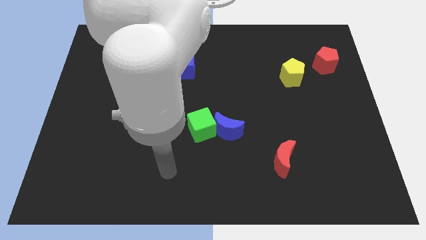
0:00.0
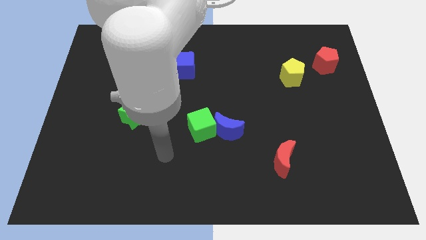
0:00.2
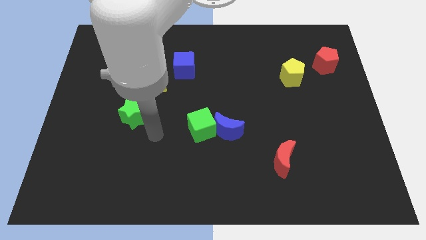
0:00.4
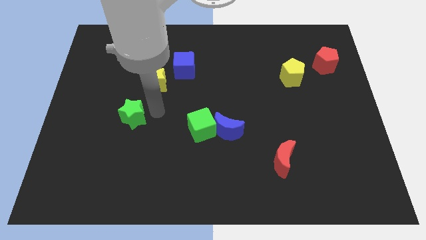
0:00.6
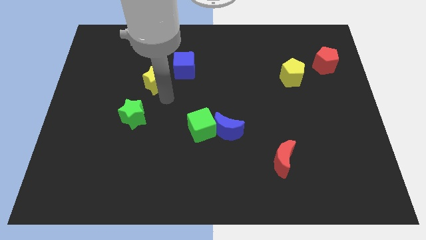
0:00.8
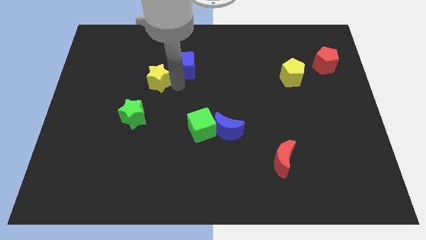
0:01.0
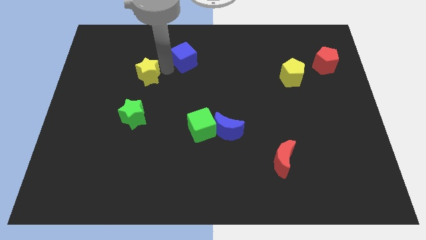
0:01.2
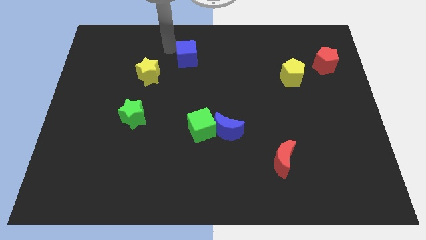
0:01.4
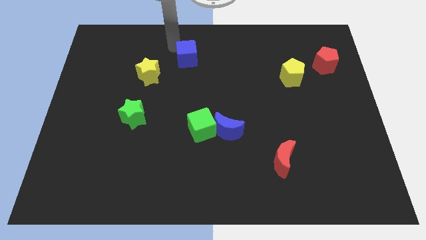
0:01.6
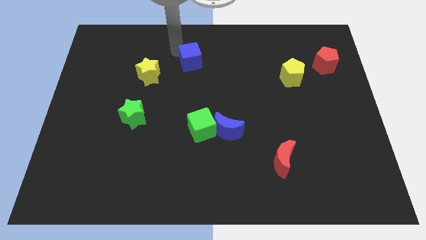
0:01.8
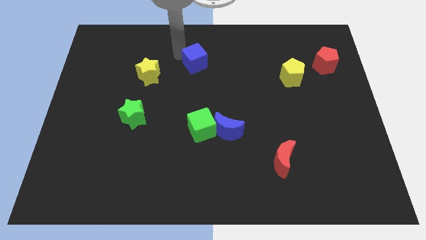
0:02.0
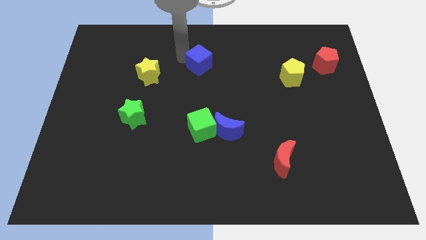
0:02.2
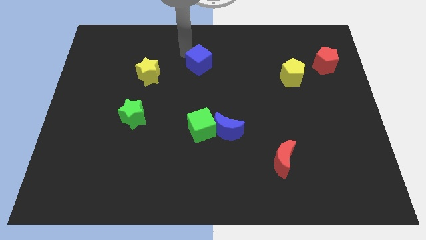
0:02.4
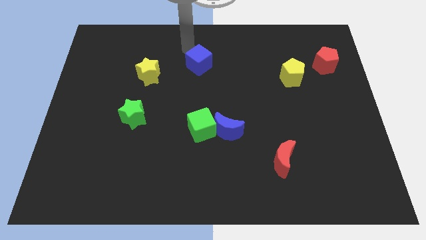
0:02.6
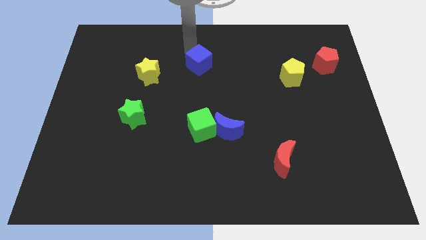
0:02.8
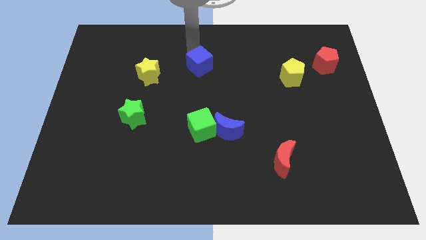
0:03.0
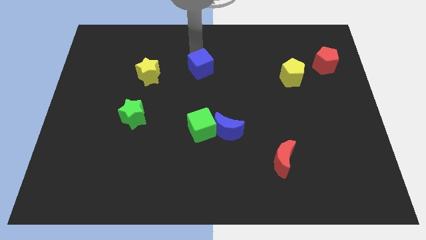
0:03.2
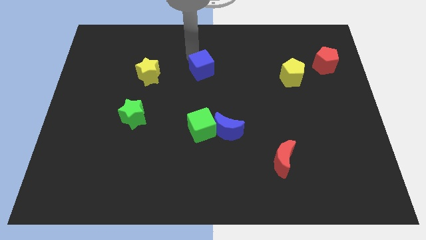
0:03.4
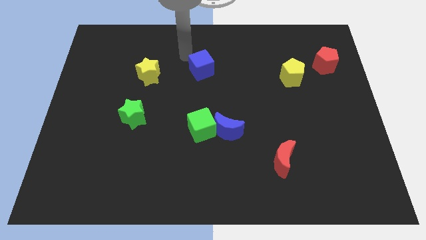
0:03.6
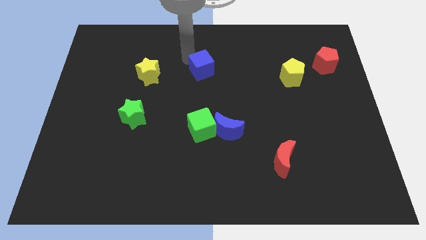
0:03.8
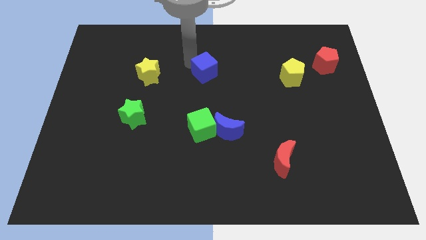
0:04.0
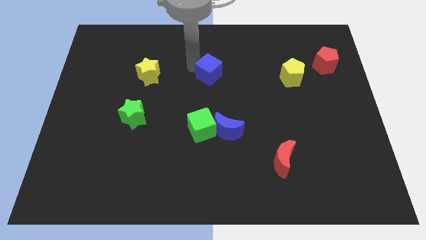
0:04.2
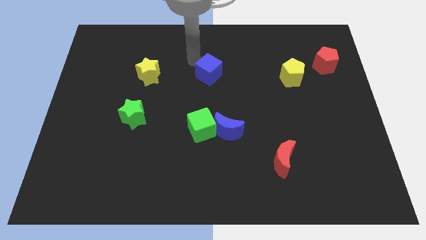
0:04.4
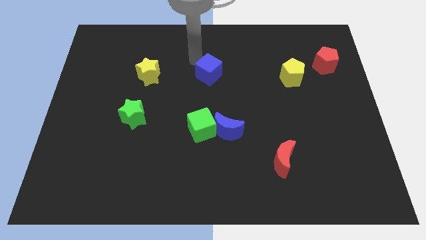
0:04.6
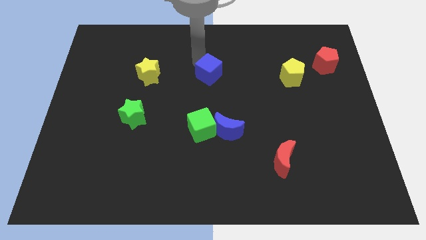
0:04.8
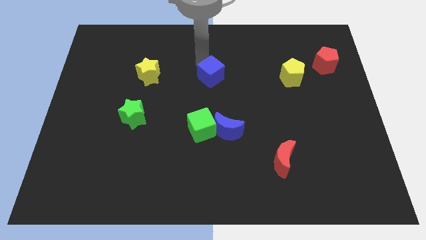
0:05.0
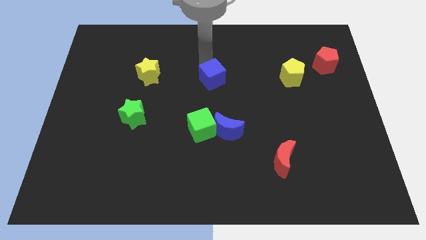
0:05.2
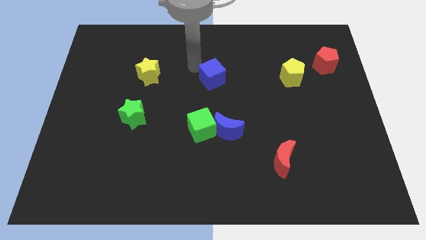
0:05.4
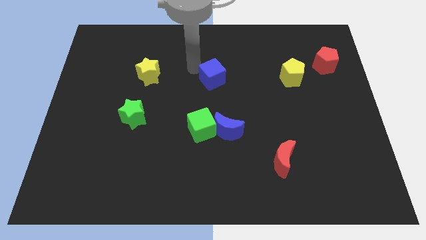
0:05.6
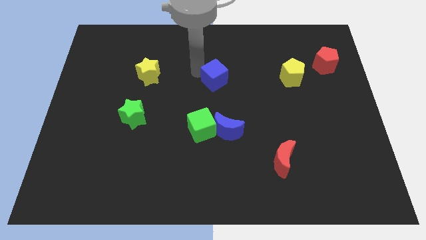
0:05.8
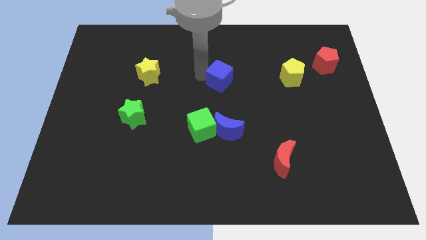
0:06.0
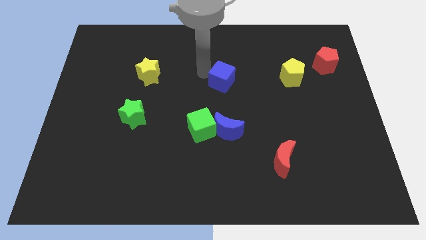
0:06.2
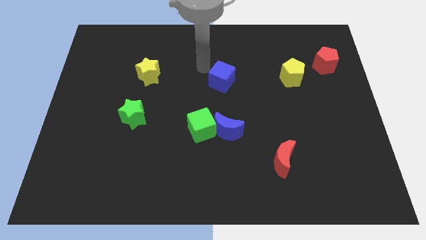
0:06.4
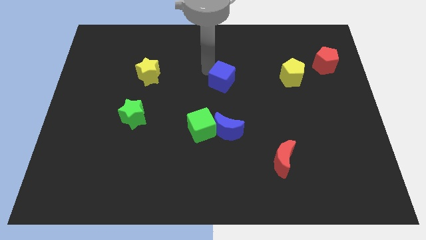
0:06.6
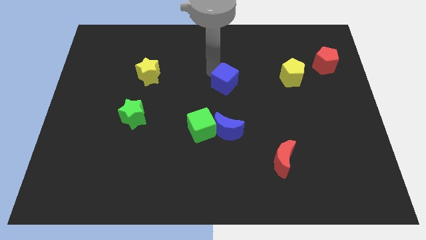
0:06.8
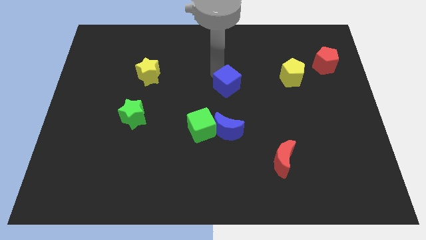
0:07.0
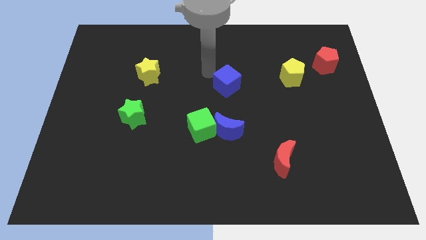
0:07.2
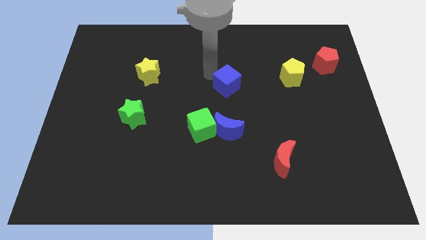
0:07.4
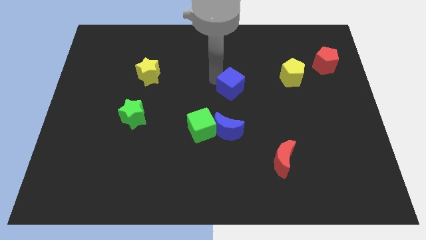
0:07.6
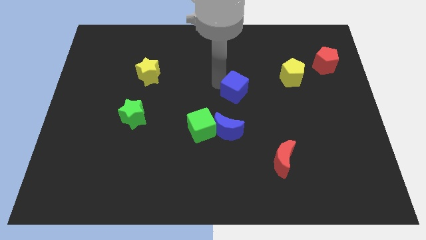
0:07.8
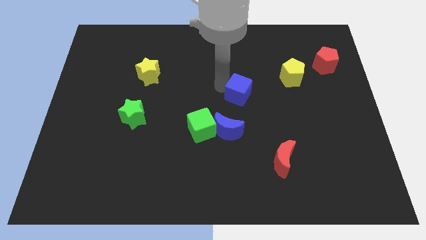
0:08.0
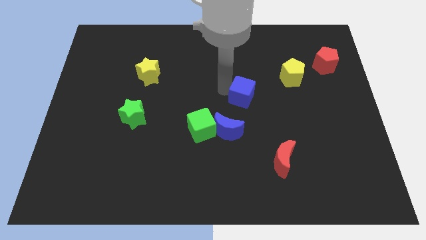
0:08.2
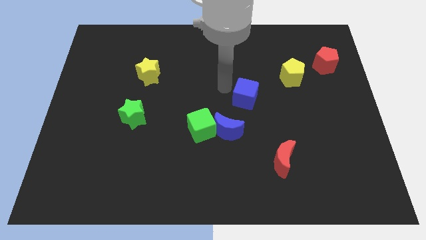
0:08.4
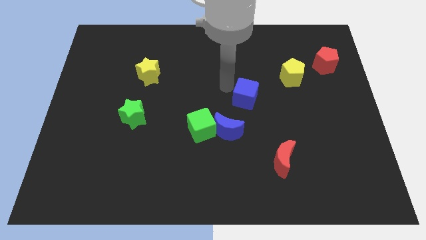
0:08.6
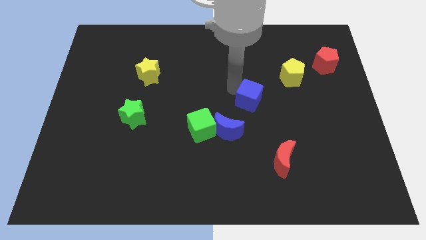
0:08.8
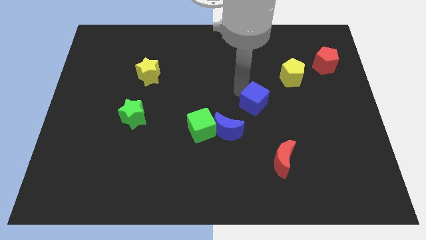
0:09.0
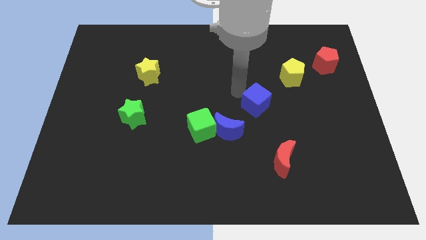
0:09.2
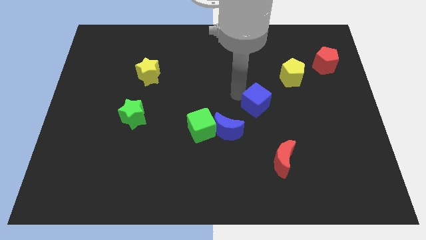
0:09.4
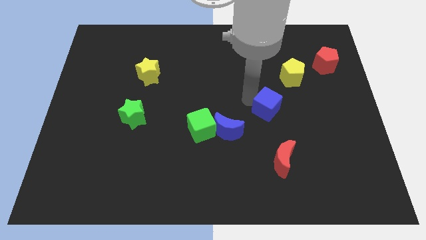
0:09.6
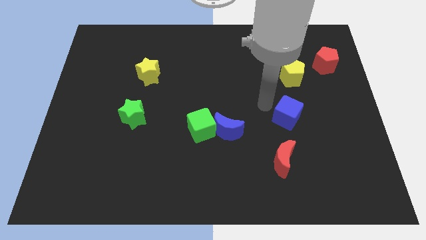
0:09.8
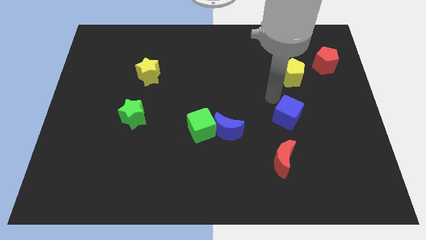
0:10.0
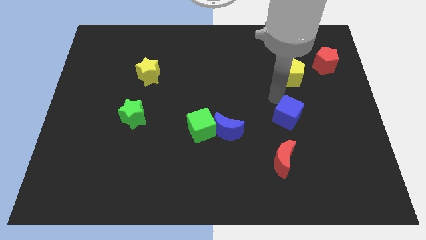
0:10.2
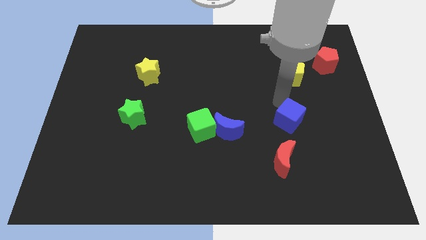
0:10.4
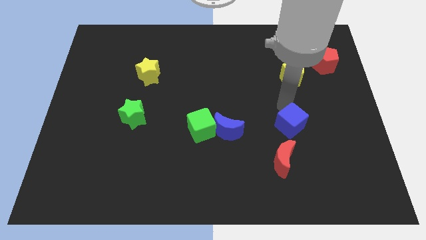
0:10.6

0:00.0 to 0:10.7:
push the blue cube to the top right of the red moon

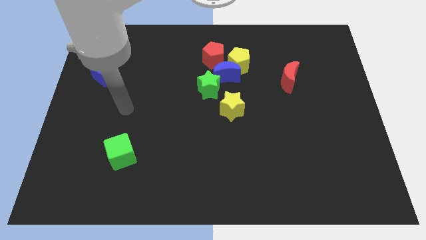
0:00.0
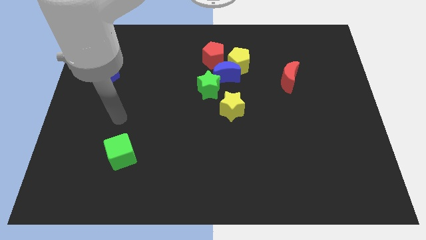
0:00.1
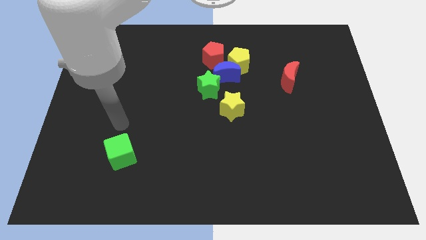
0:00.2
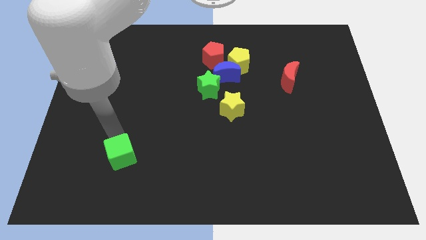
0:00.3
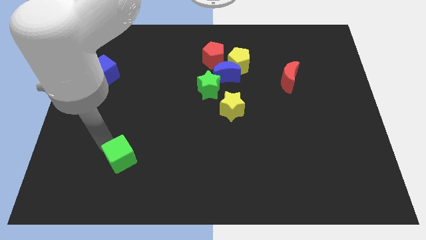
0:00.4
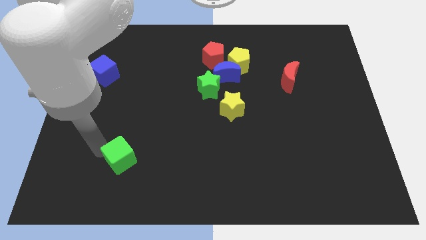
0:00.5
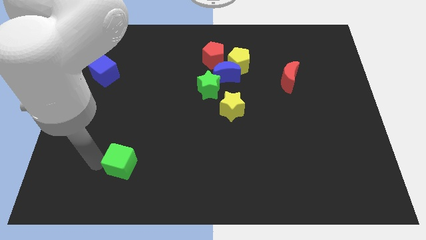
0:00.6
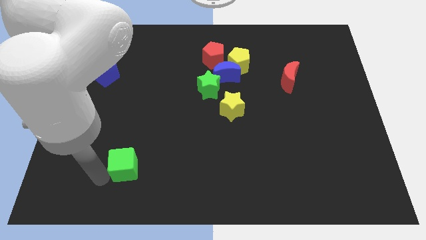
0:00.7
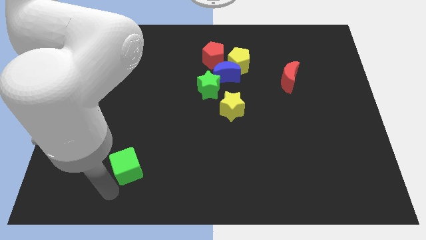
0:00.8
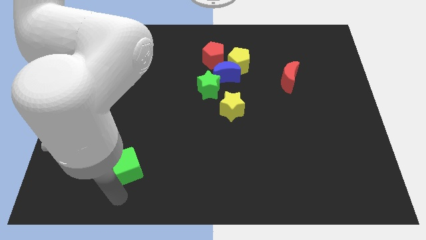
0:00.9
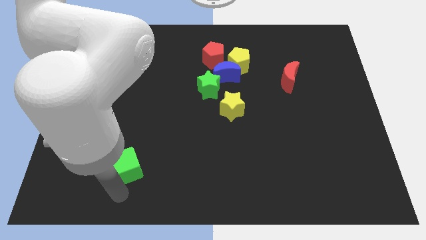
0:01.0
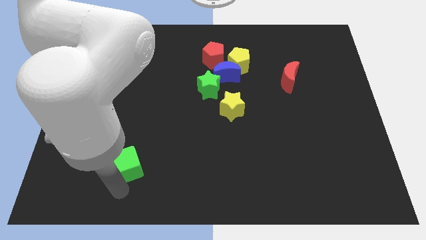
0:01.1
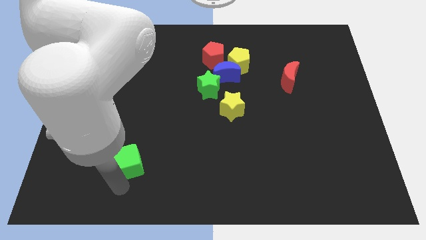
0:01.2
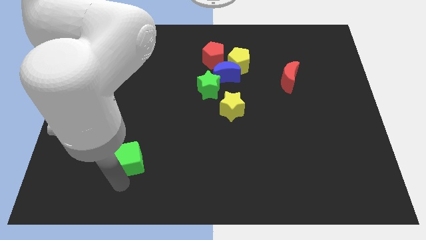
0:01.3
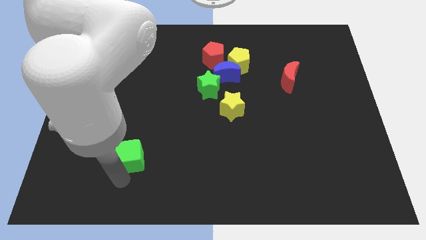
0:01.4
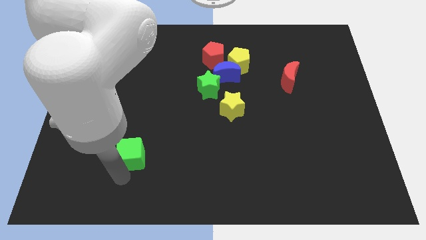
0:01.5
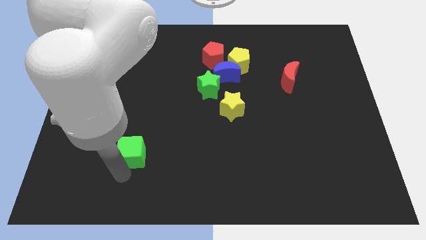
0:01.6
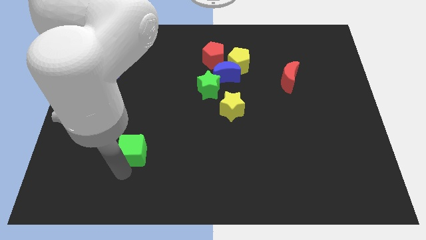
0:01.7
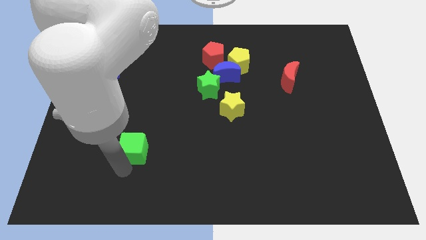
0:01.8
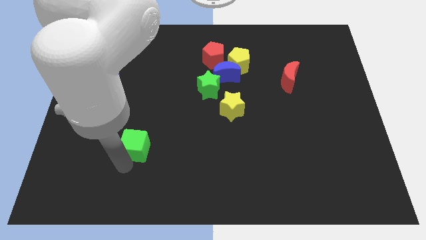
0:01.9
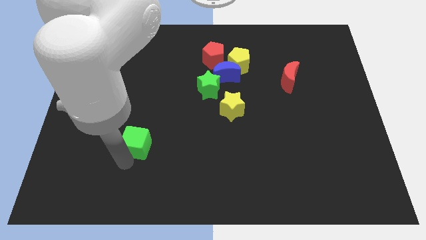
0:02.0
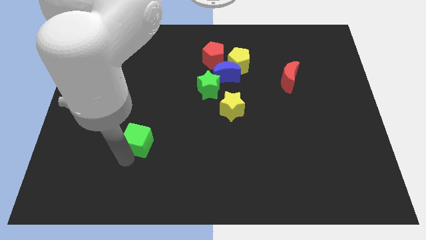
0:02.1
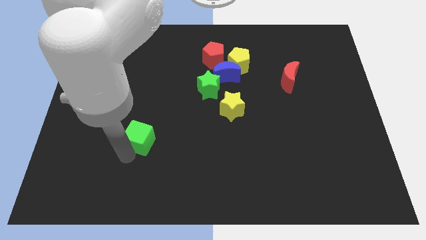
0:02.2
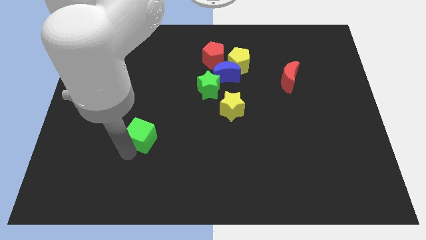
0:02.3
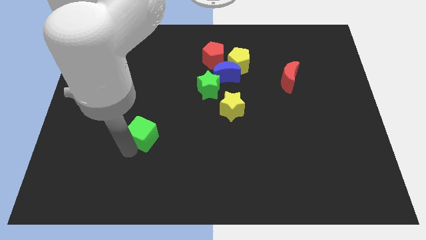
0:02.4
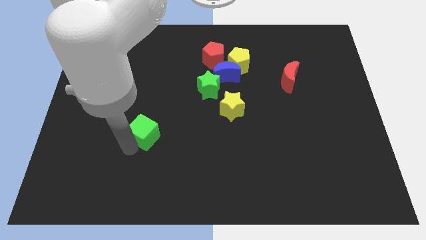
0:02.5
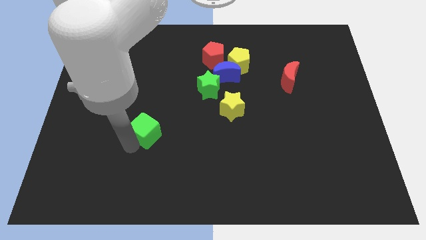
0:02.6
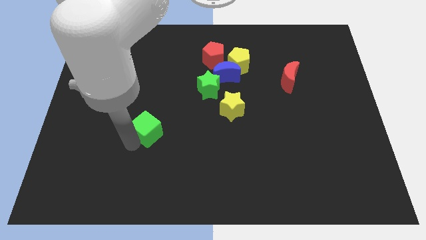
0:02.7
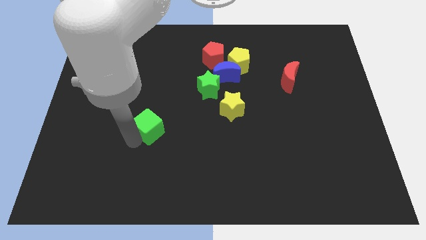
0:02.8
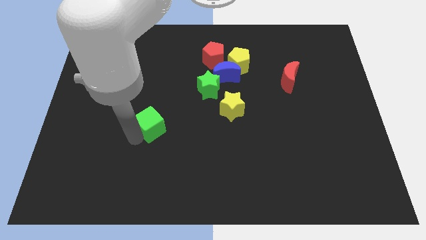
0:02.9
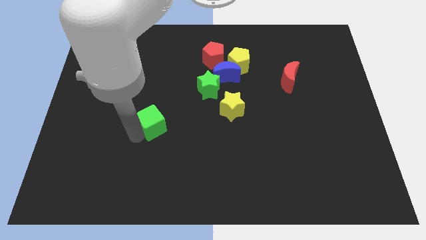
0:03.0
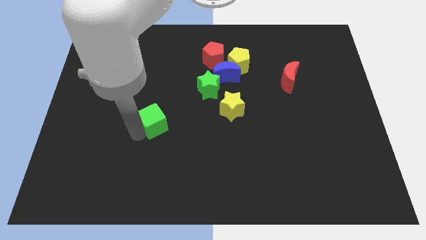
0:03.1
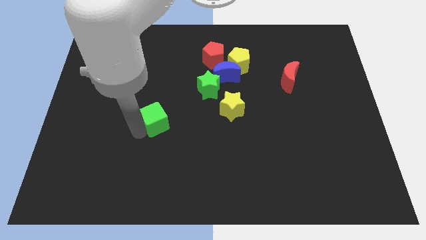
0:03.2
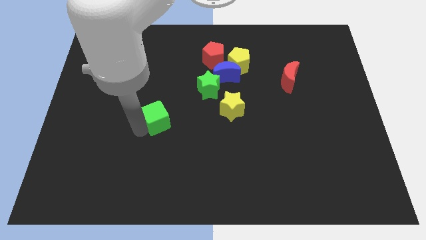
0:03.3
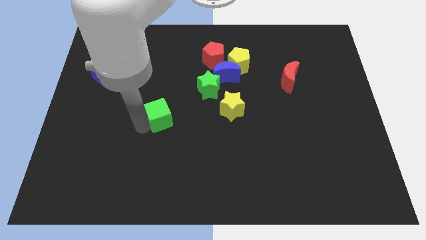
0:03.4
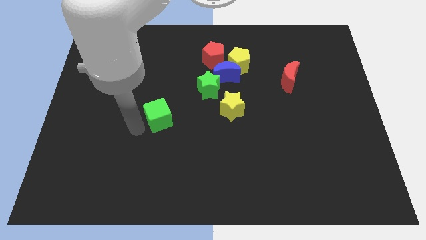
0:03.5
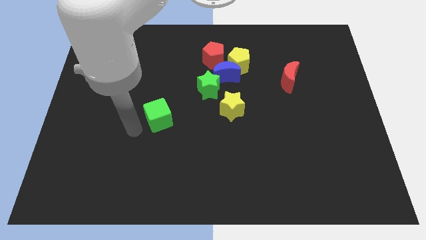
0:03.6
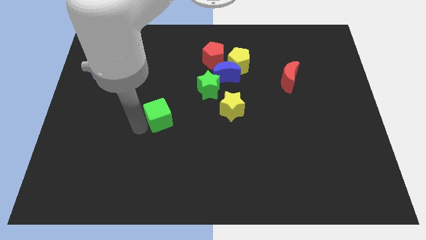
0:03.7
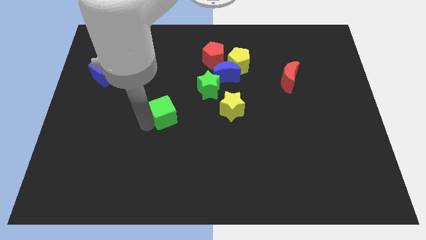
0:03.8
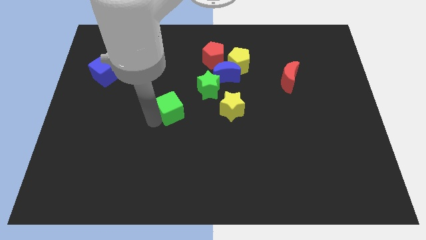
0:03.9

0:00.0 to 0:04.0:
slide the green cube to the bottom left of the green star
